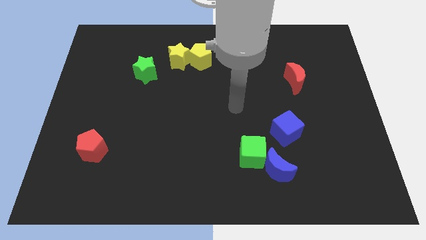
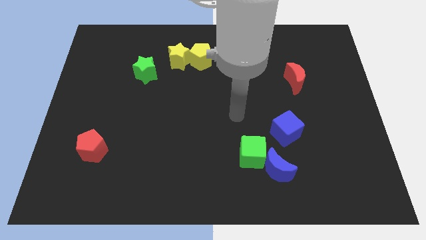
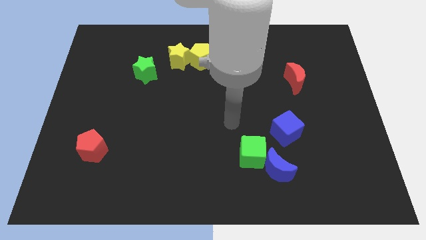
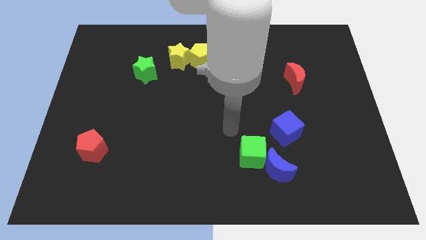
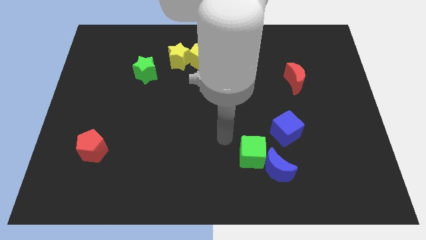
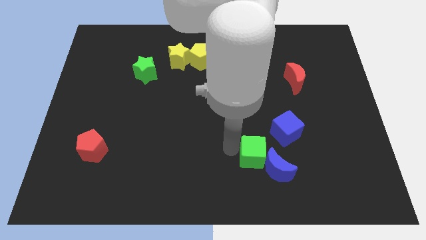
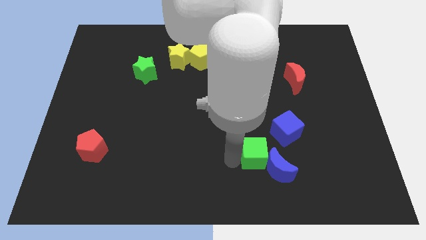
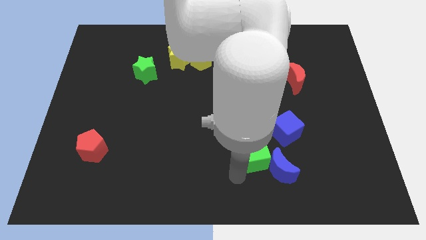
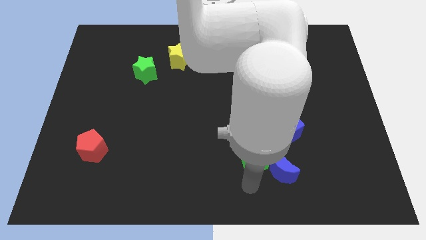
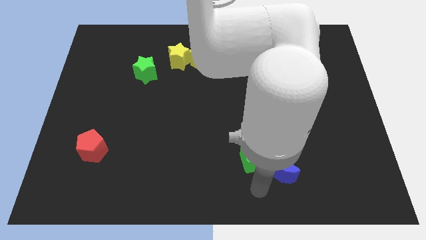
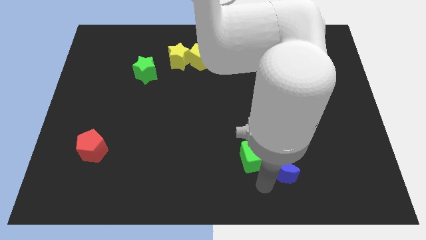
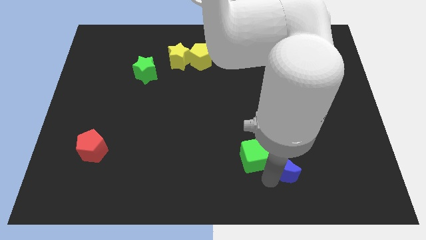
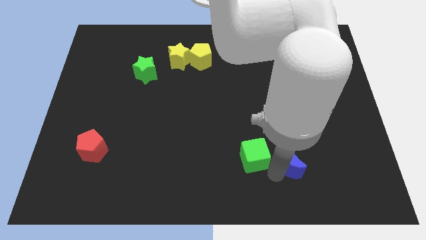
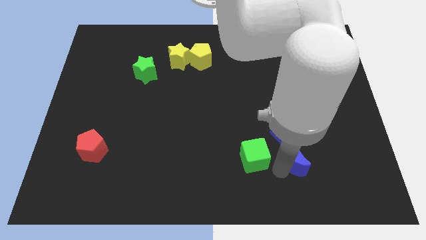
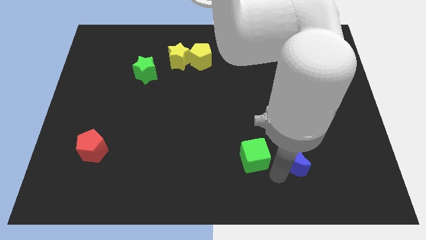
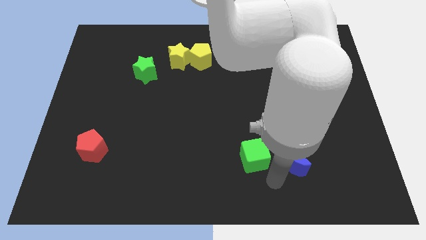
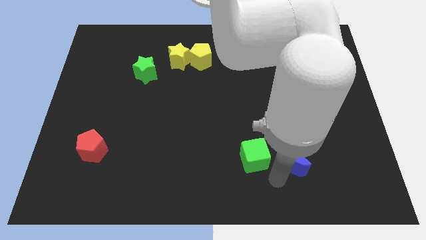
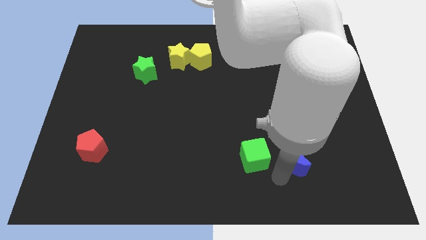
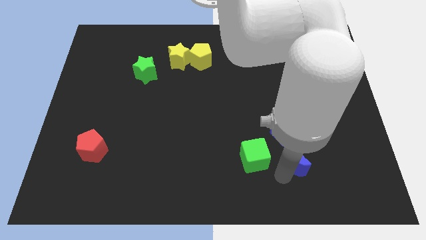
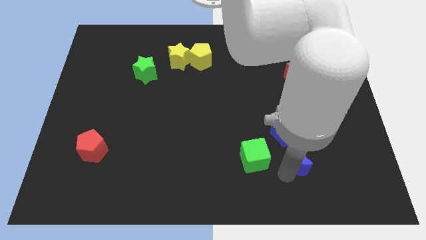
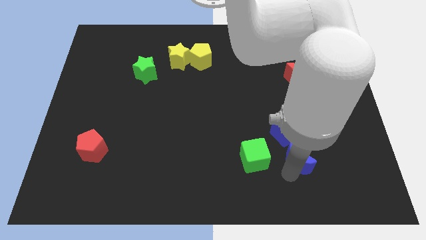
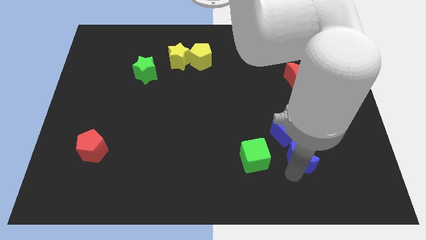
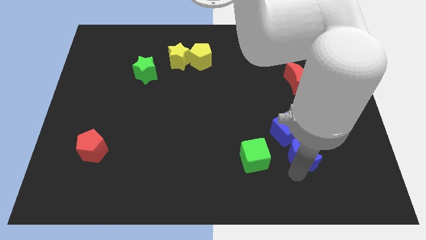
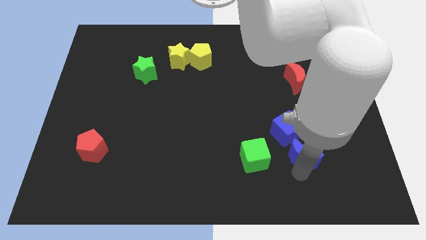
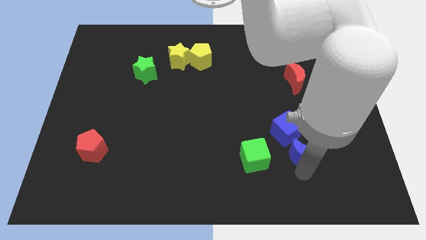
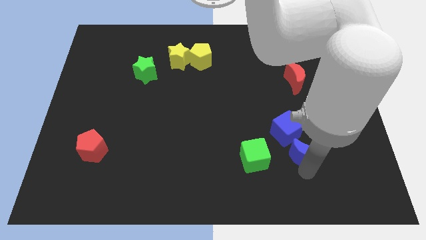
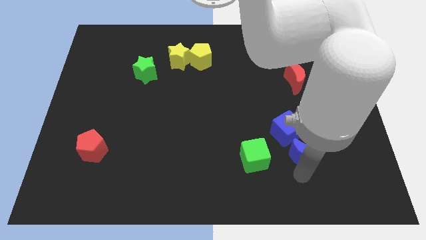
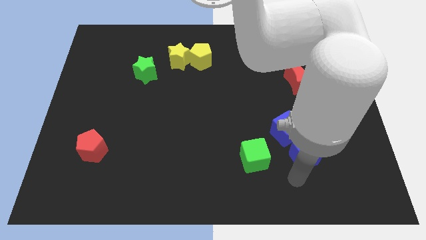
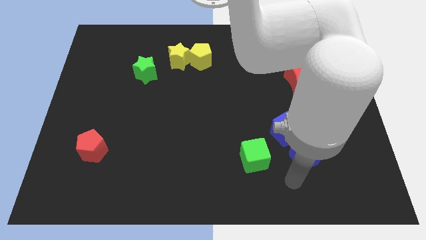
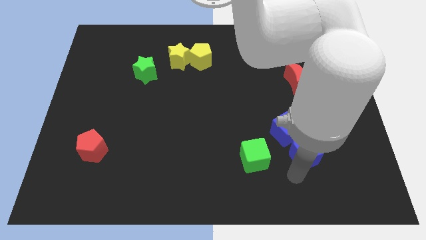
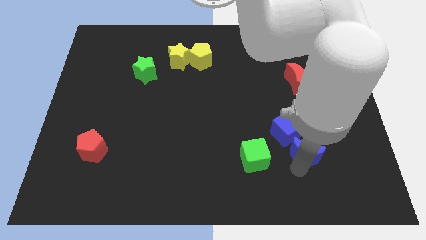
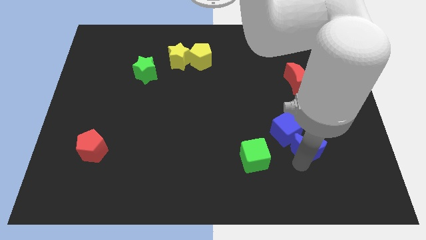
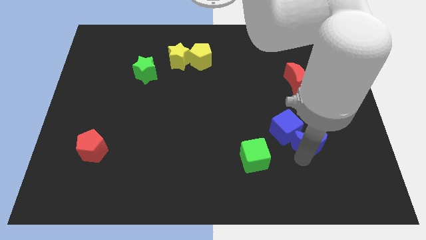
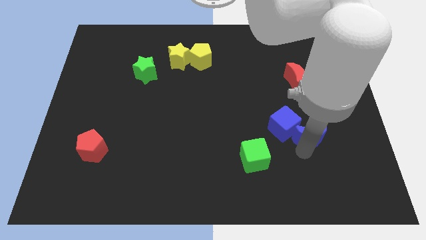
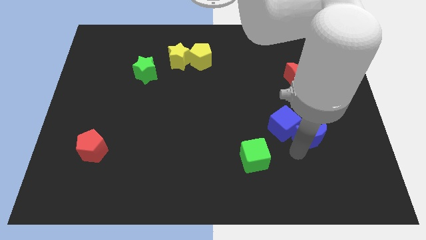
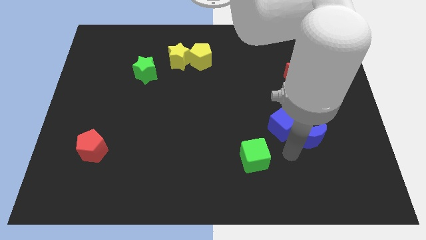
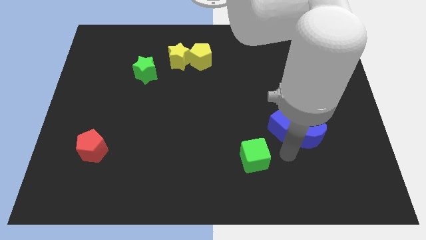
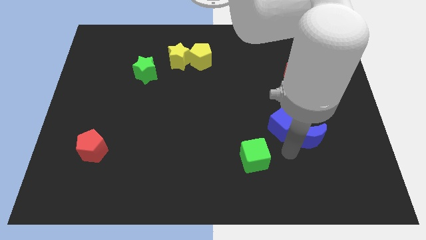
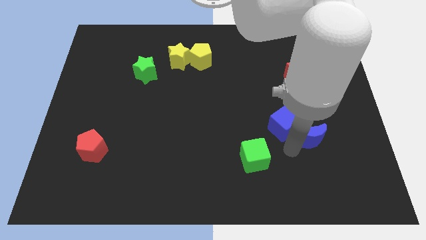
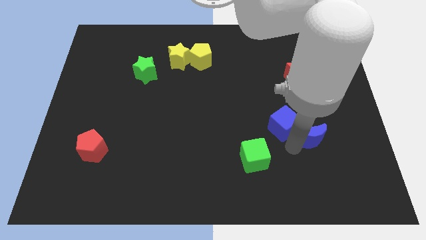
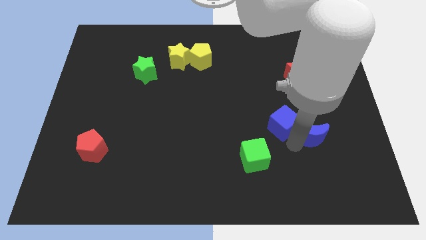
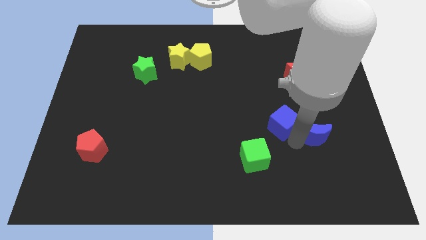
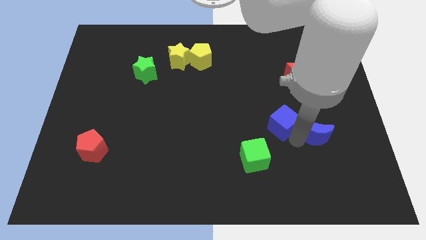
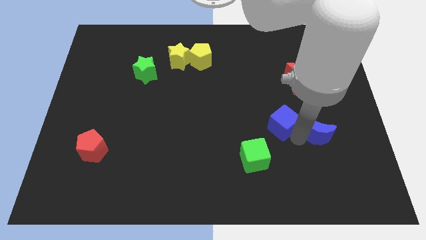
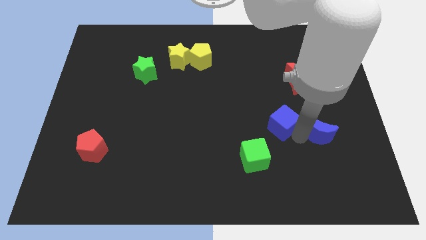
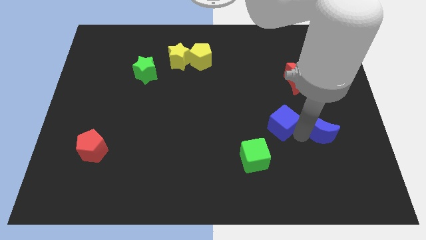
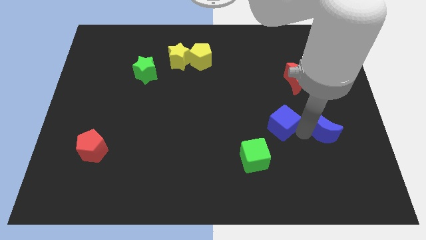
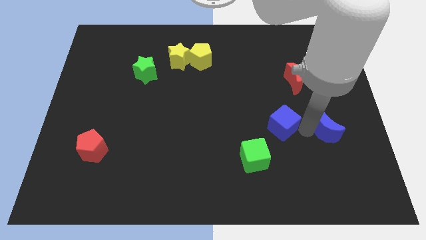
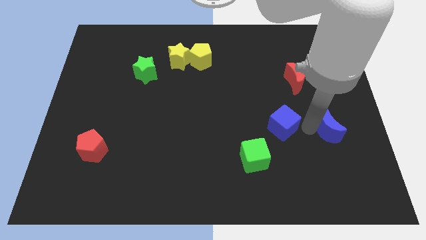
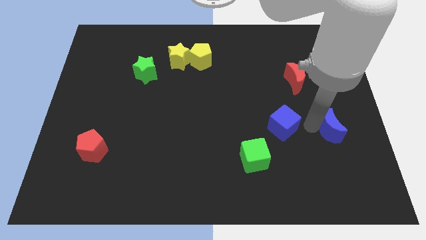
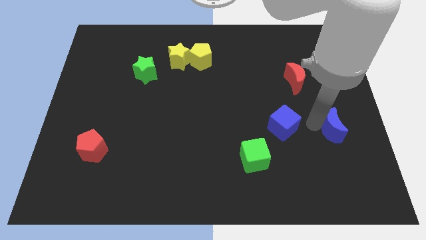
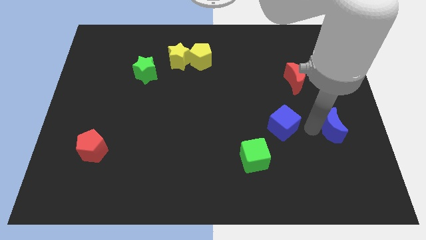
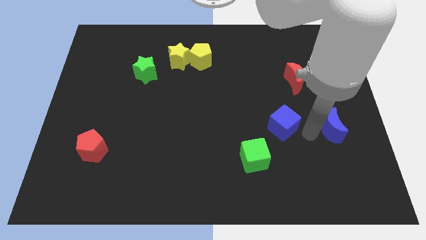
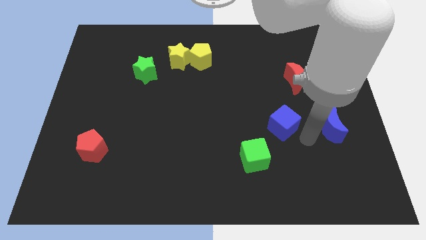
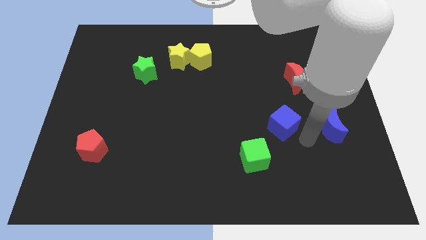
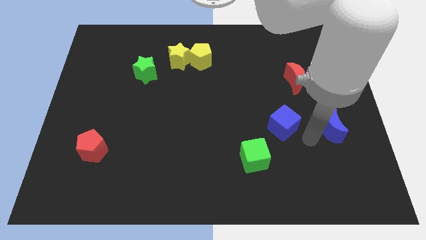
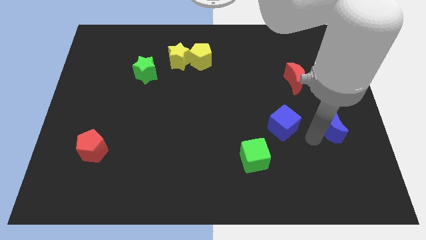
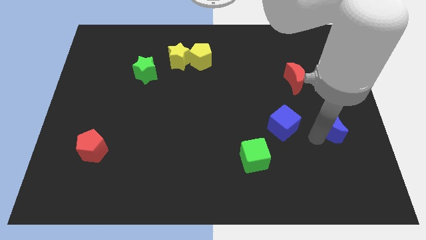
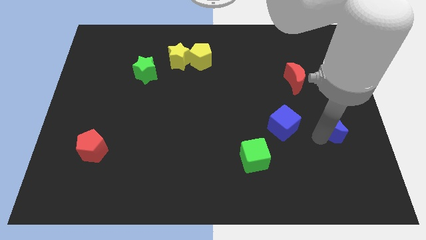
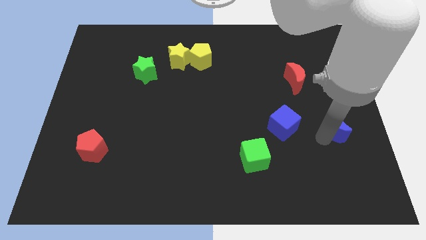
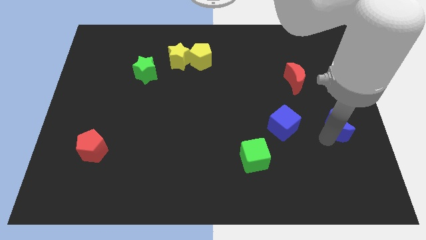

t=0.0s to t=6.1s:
move the blue moon to the center right
